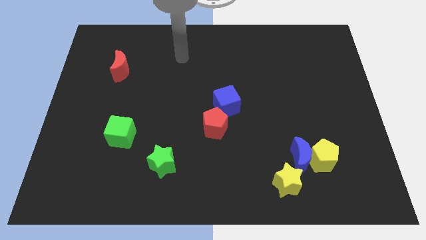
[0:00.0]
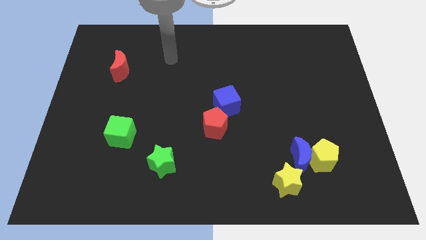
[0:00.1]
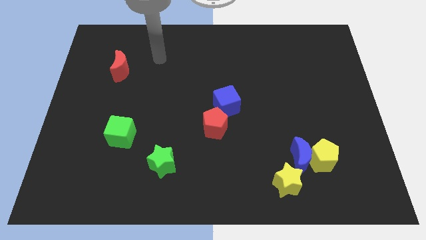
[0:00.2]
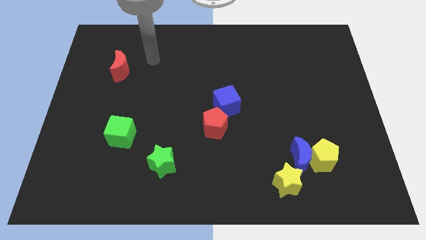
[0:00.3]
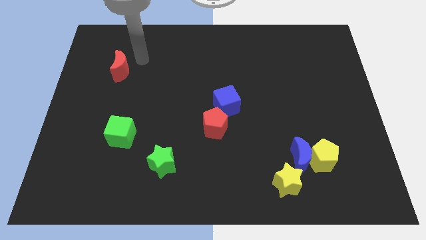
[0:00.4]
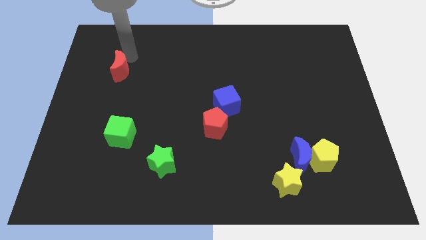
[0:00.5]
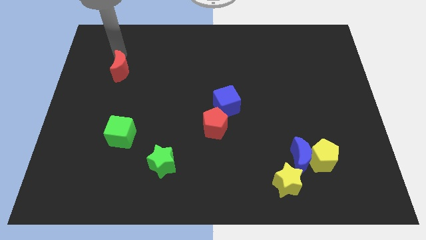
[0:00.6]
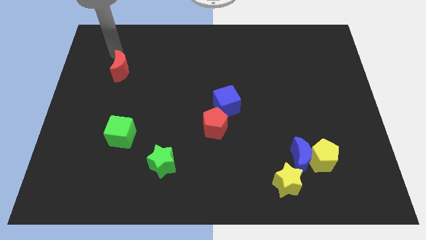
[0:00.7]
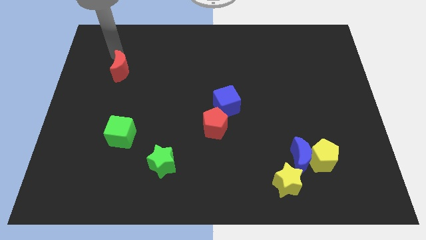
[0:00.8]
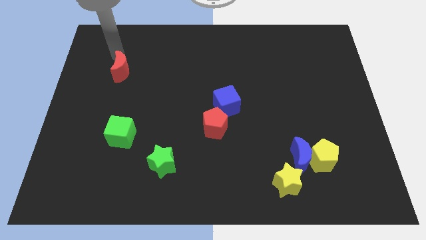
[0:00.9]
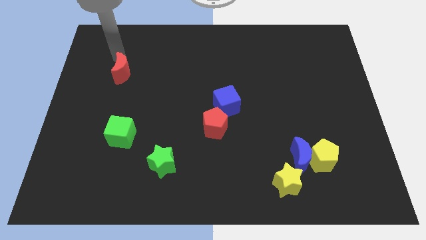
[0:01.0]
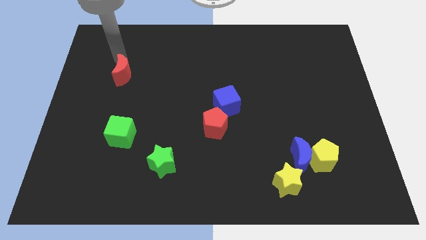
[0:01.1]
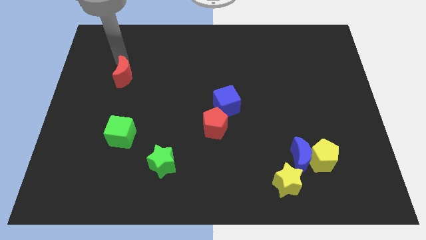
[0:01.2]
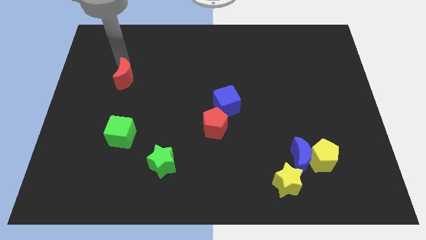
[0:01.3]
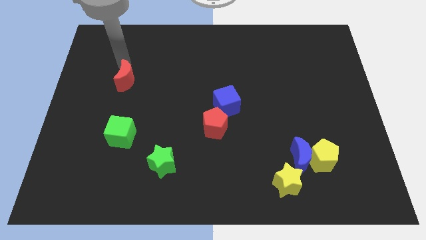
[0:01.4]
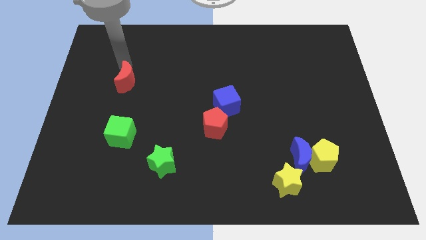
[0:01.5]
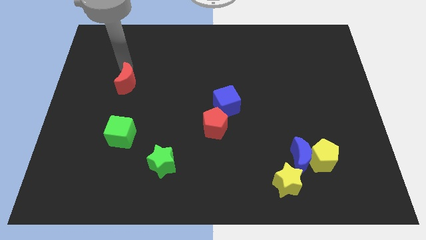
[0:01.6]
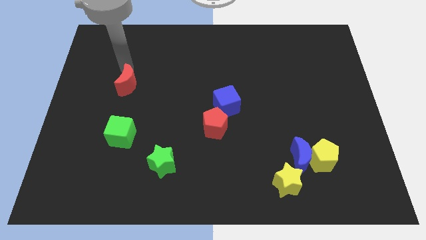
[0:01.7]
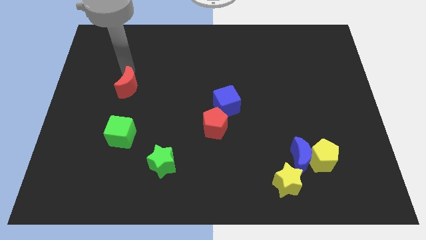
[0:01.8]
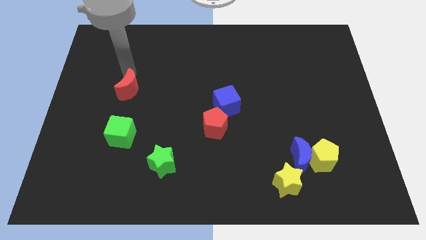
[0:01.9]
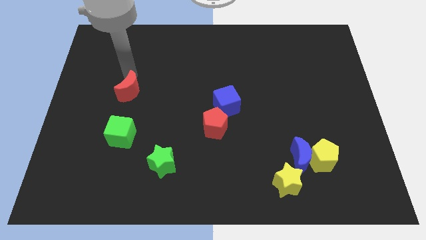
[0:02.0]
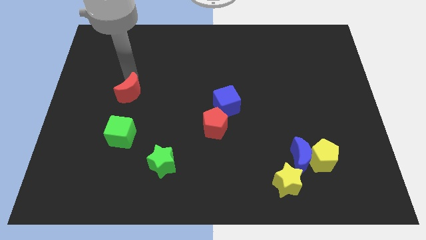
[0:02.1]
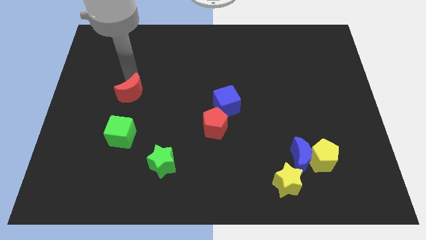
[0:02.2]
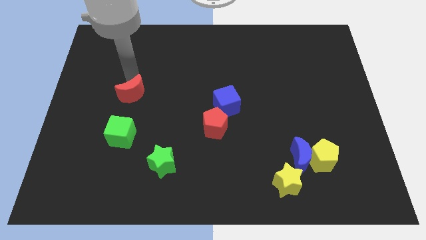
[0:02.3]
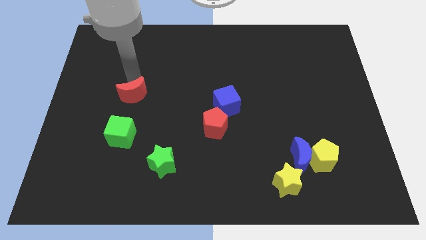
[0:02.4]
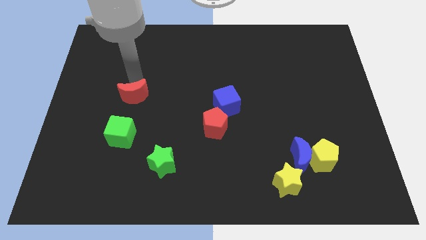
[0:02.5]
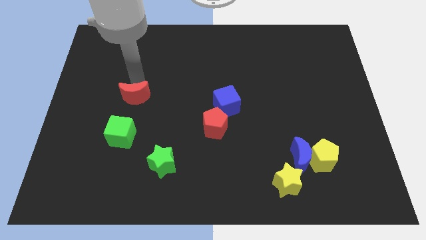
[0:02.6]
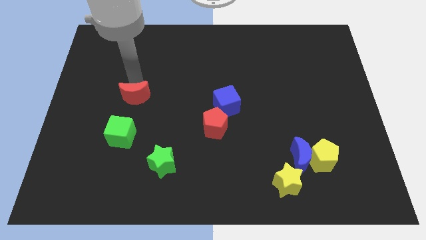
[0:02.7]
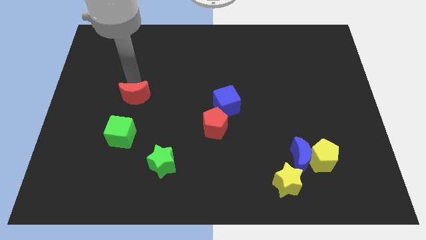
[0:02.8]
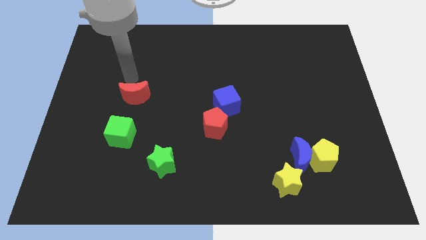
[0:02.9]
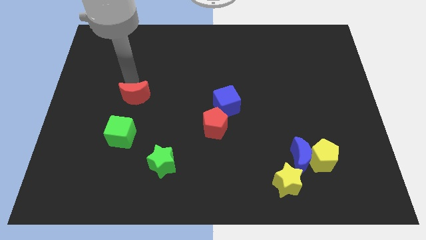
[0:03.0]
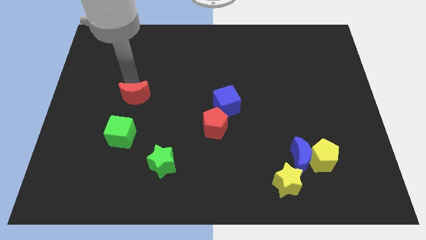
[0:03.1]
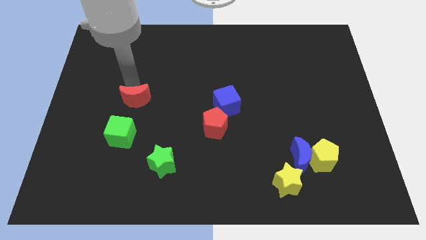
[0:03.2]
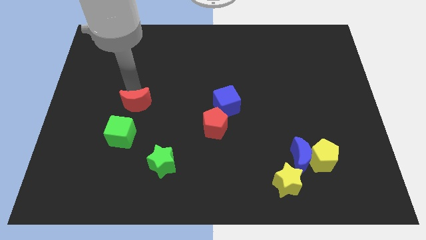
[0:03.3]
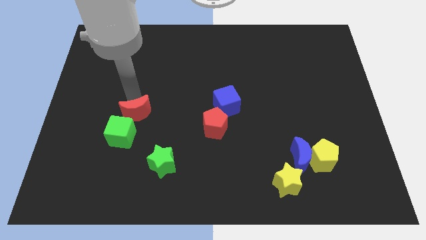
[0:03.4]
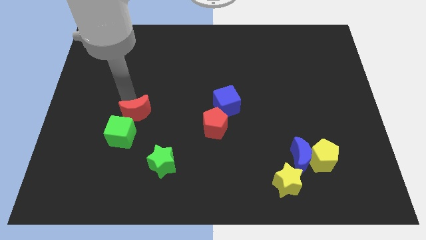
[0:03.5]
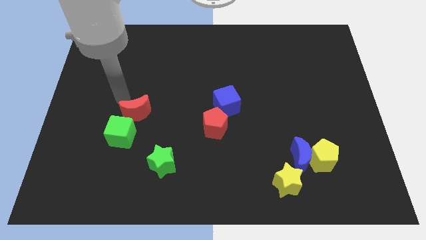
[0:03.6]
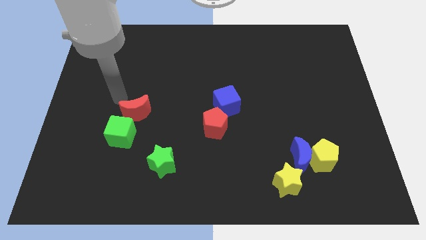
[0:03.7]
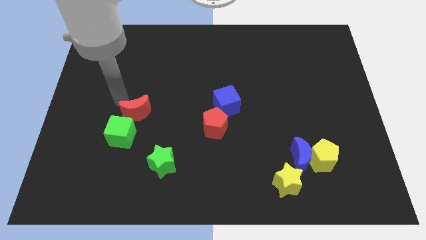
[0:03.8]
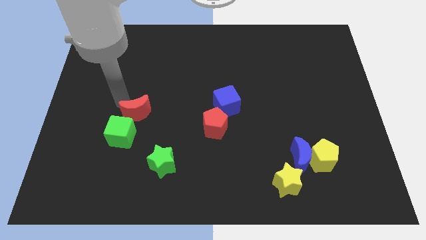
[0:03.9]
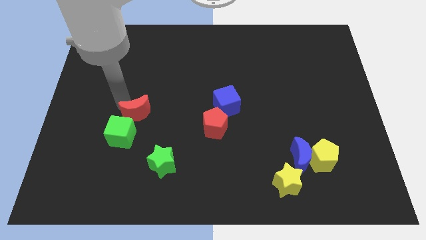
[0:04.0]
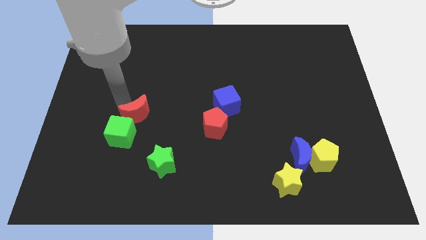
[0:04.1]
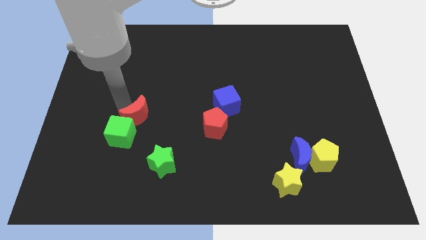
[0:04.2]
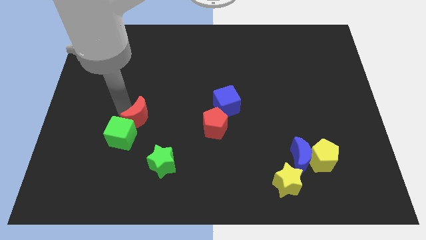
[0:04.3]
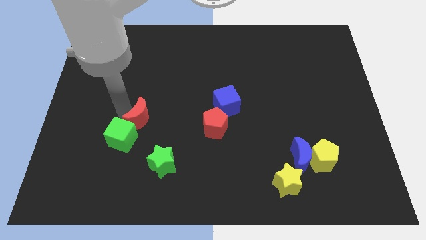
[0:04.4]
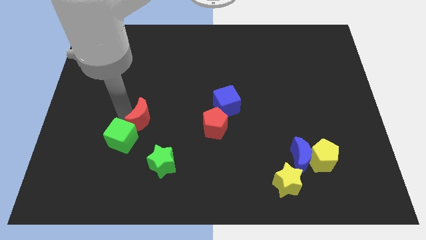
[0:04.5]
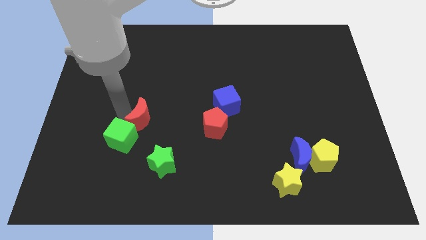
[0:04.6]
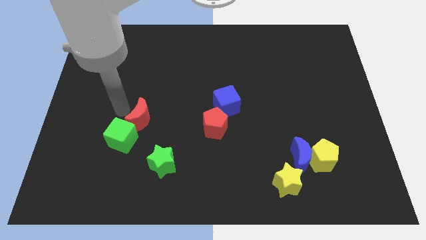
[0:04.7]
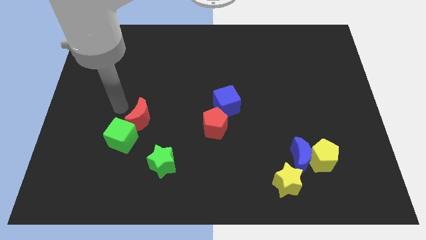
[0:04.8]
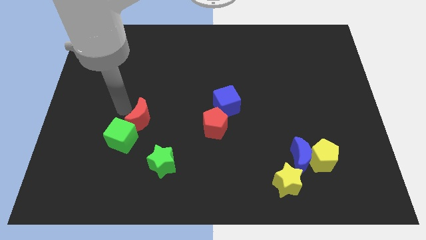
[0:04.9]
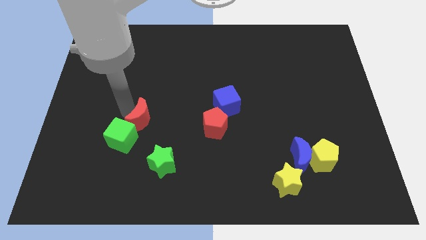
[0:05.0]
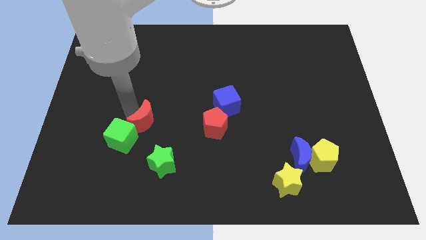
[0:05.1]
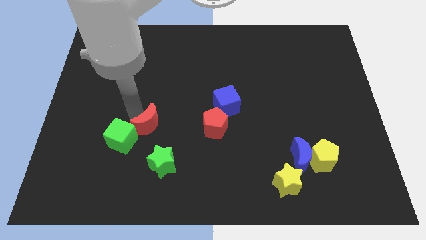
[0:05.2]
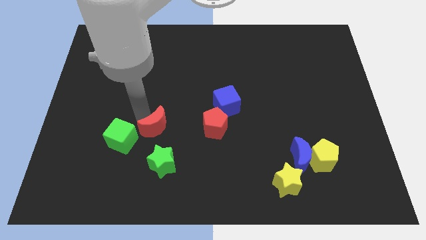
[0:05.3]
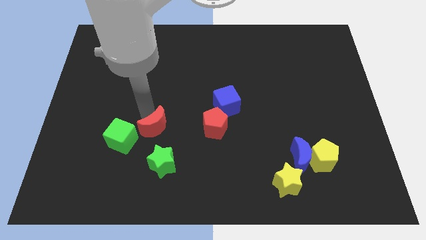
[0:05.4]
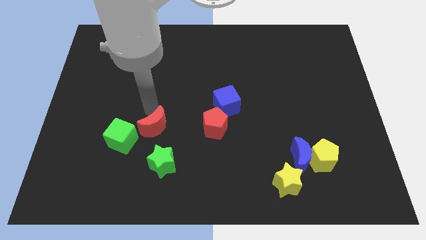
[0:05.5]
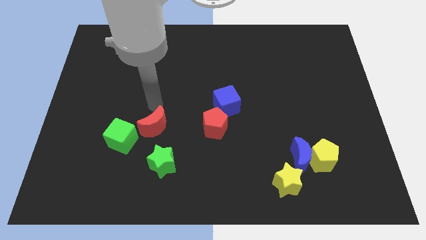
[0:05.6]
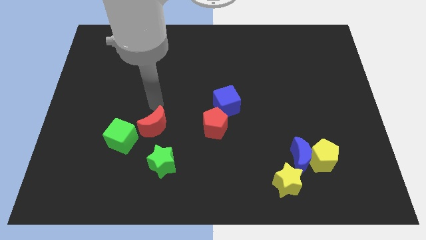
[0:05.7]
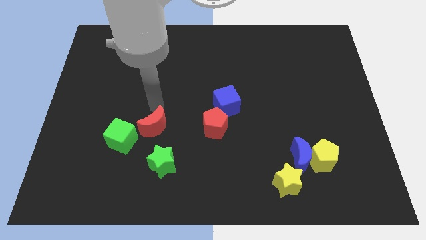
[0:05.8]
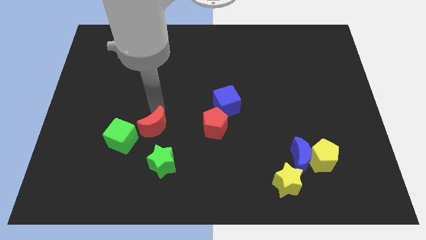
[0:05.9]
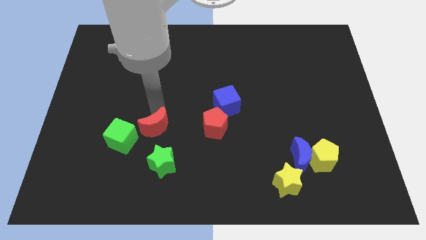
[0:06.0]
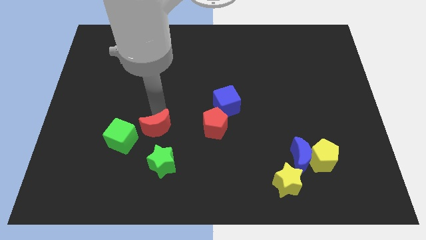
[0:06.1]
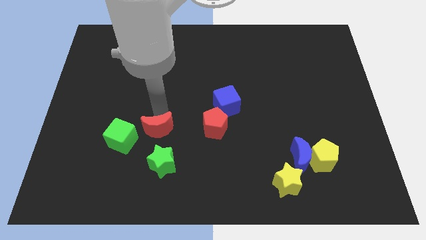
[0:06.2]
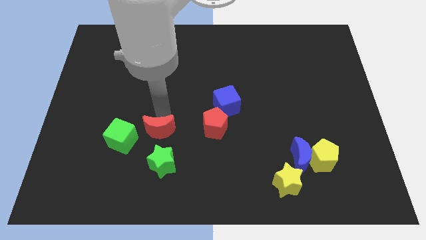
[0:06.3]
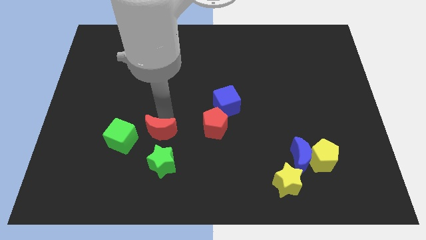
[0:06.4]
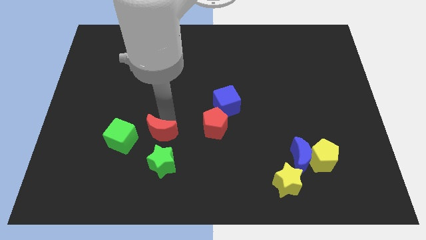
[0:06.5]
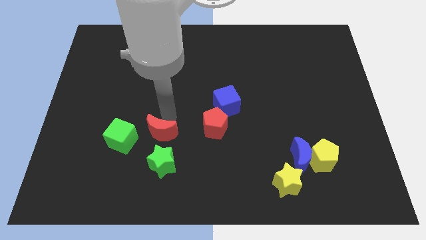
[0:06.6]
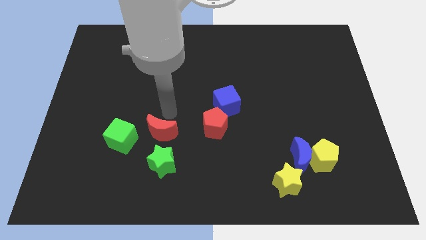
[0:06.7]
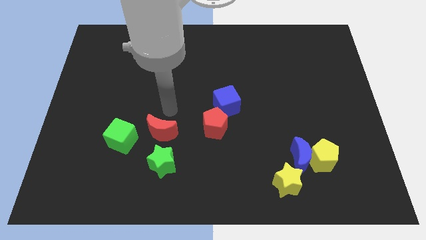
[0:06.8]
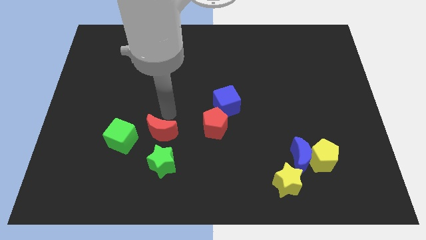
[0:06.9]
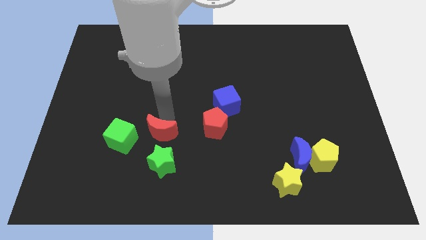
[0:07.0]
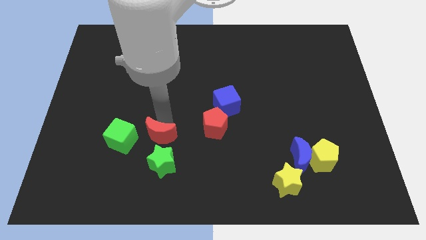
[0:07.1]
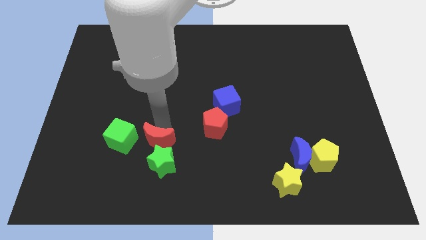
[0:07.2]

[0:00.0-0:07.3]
put the red moon towards the green star
